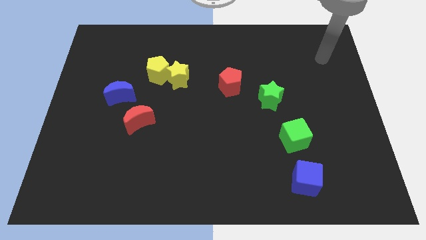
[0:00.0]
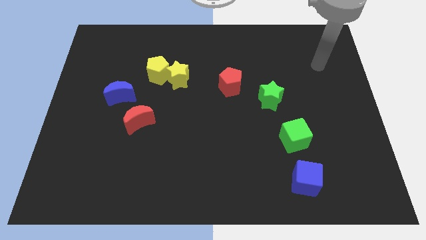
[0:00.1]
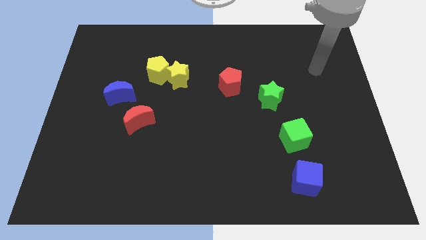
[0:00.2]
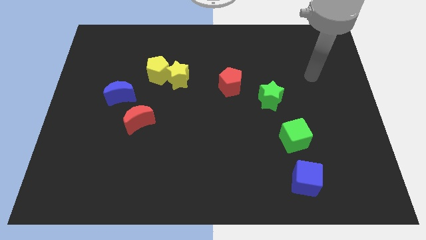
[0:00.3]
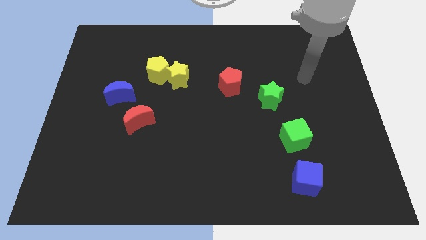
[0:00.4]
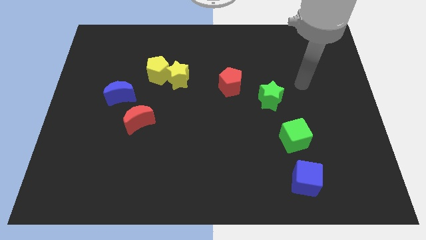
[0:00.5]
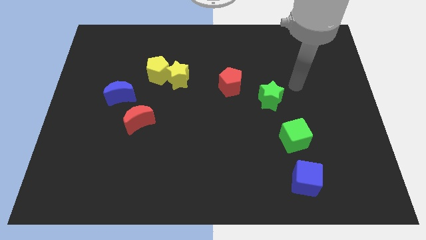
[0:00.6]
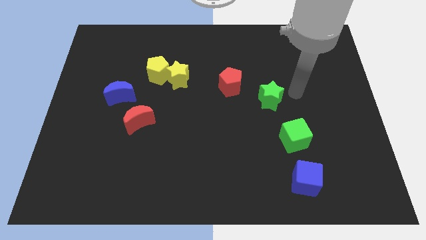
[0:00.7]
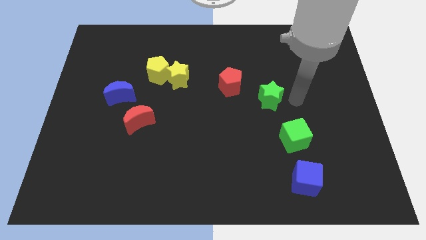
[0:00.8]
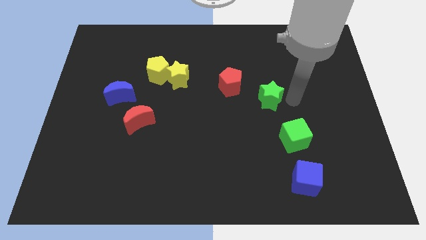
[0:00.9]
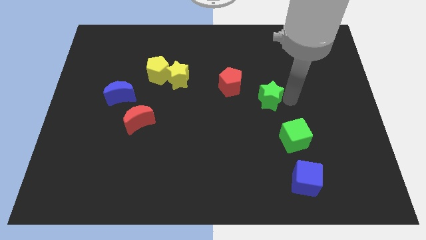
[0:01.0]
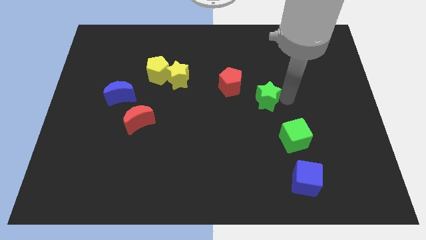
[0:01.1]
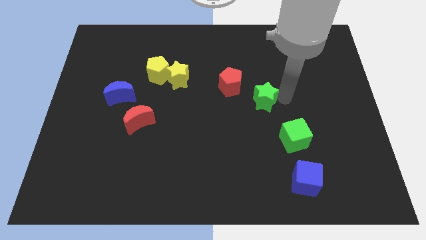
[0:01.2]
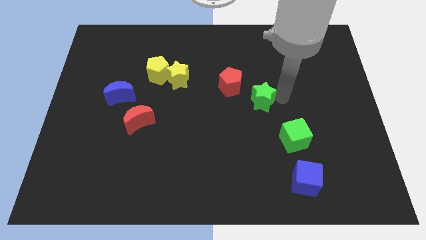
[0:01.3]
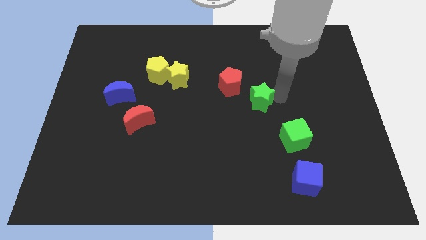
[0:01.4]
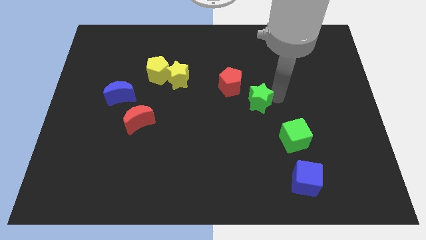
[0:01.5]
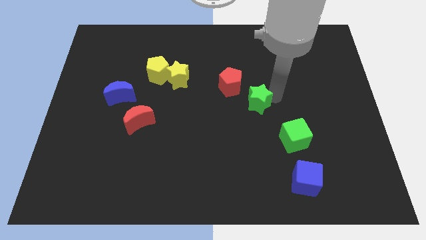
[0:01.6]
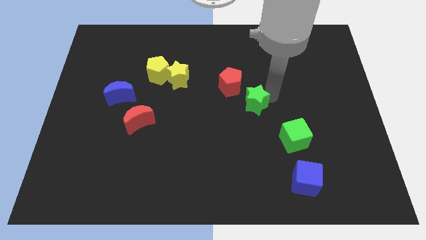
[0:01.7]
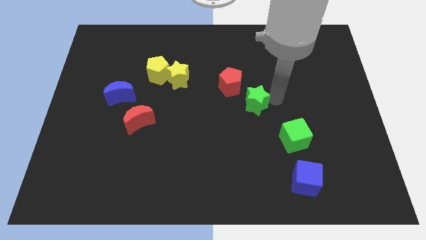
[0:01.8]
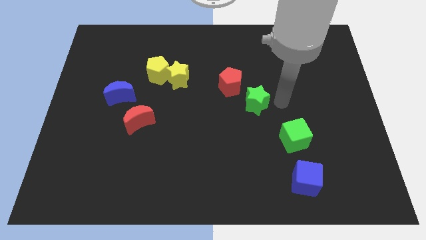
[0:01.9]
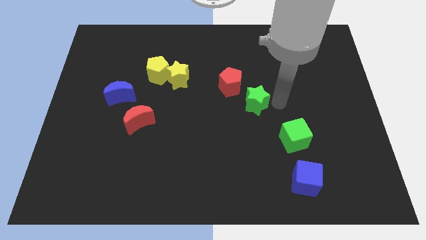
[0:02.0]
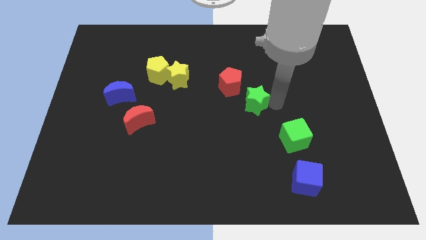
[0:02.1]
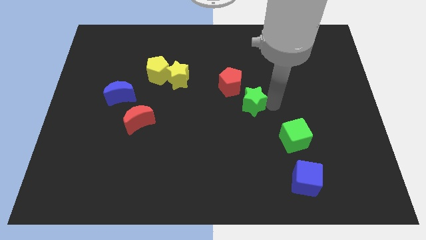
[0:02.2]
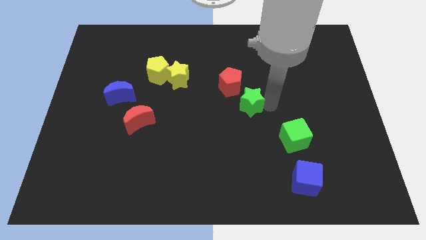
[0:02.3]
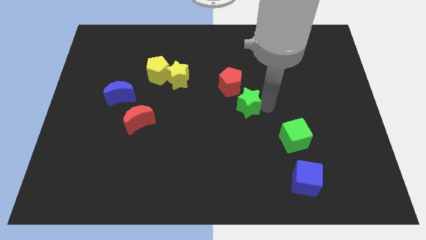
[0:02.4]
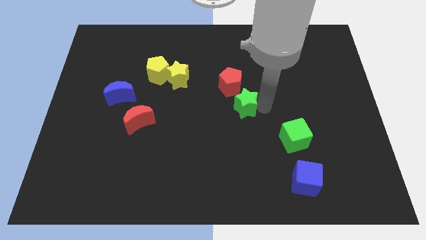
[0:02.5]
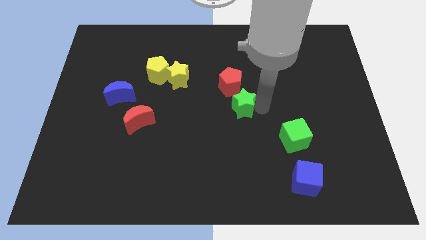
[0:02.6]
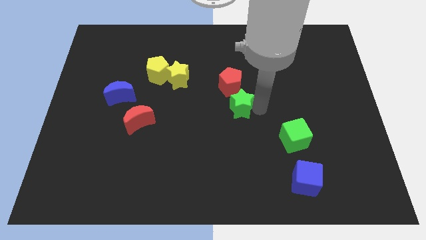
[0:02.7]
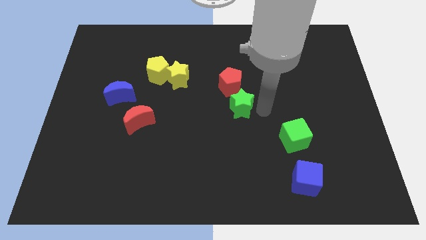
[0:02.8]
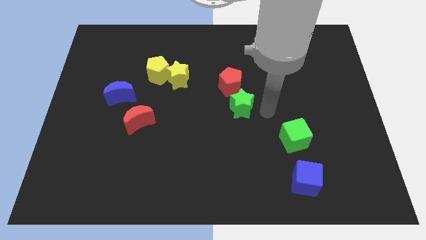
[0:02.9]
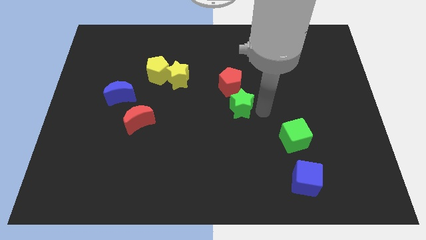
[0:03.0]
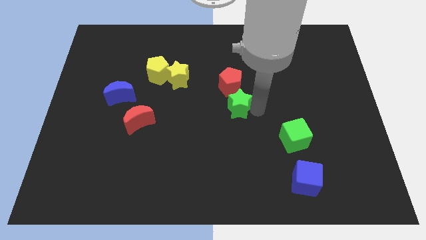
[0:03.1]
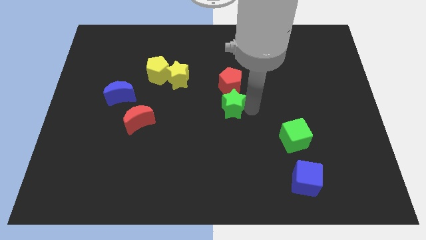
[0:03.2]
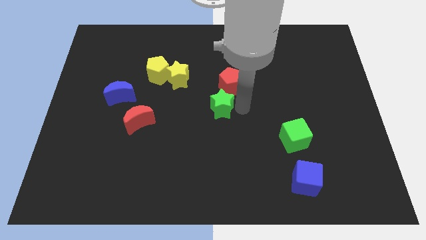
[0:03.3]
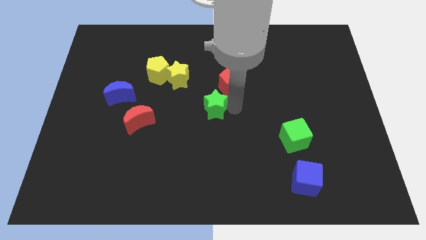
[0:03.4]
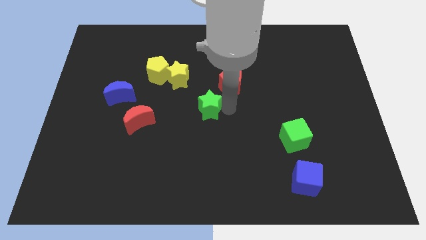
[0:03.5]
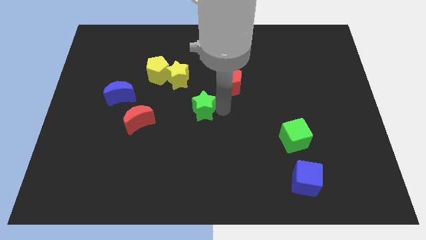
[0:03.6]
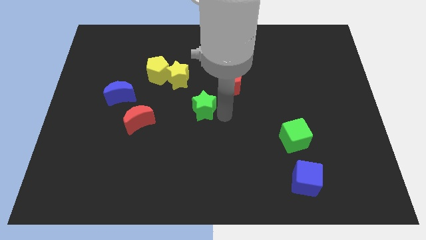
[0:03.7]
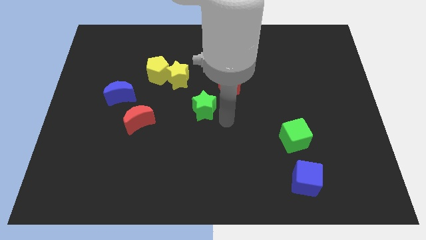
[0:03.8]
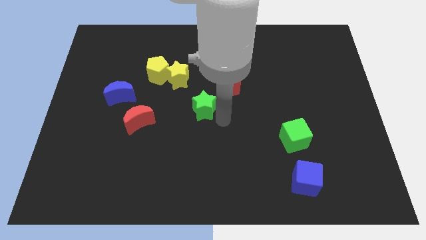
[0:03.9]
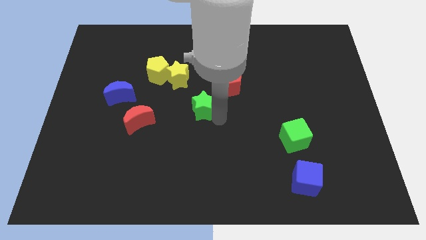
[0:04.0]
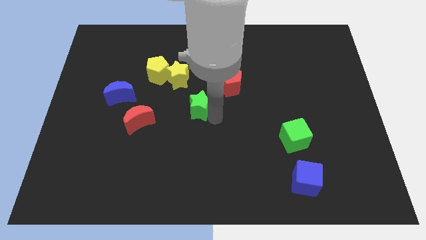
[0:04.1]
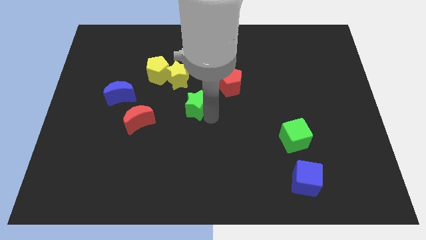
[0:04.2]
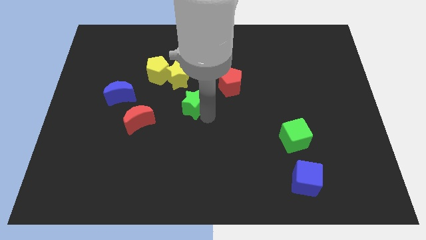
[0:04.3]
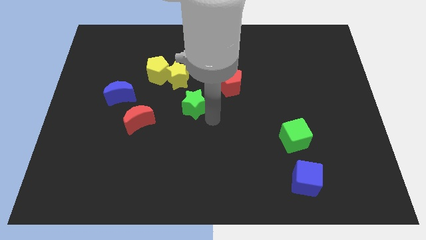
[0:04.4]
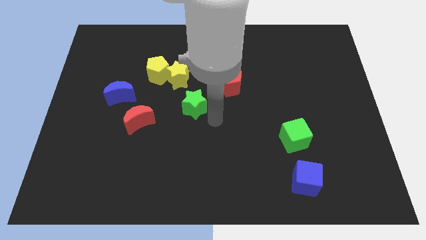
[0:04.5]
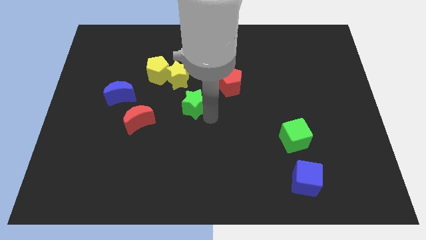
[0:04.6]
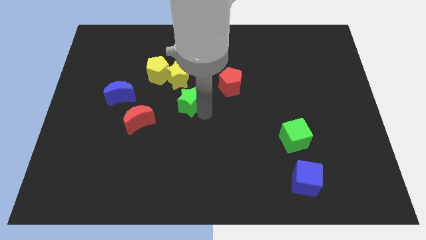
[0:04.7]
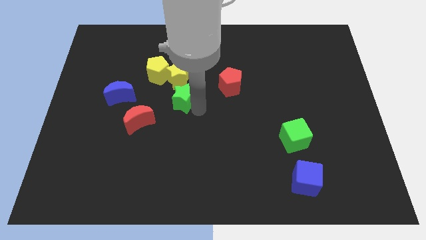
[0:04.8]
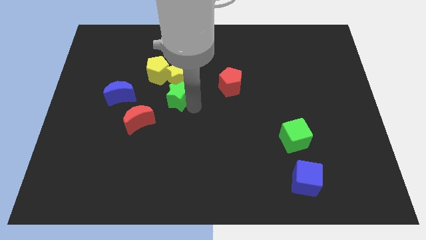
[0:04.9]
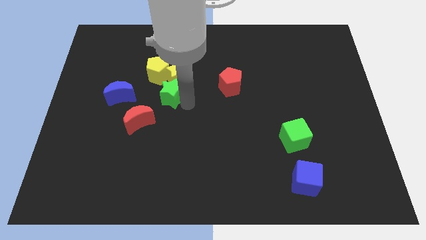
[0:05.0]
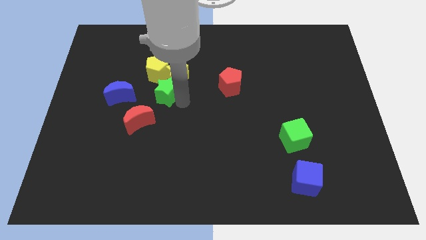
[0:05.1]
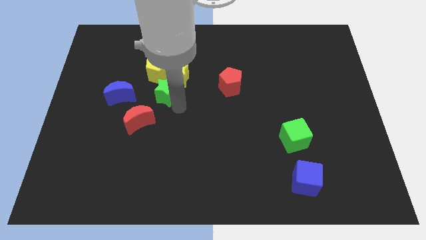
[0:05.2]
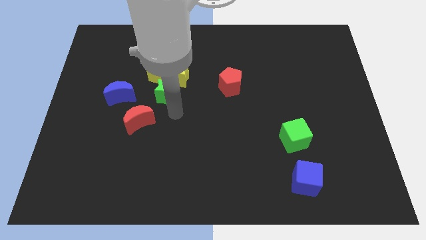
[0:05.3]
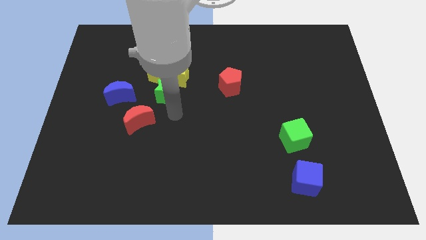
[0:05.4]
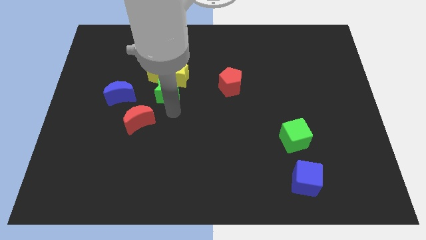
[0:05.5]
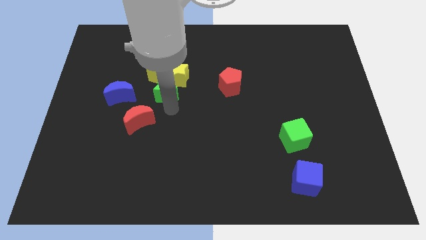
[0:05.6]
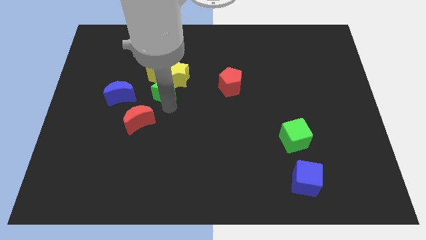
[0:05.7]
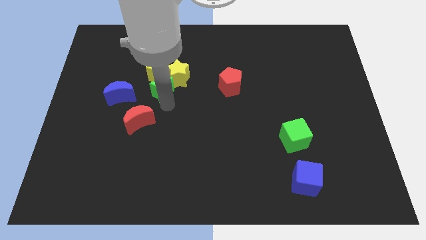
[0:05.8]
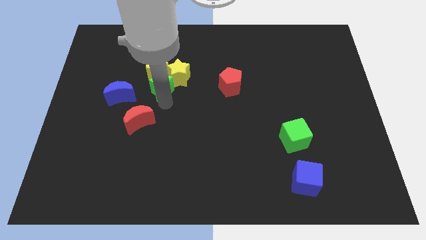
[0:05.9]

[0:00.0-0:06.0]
push the green star close to the yellow pentagon

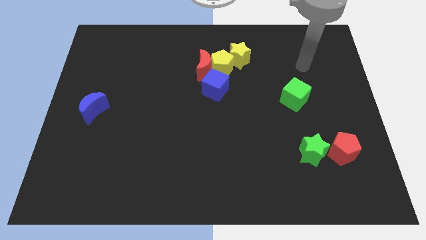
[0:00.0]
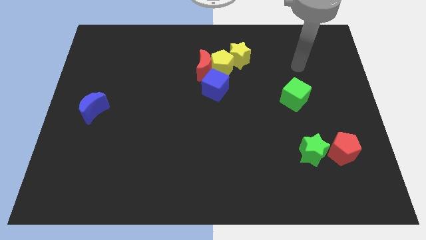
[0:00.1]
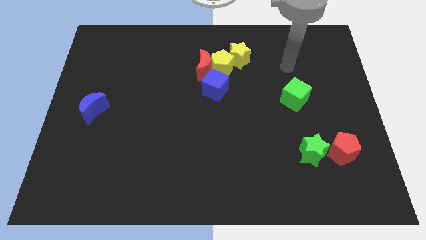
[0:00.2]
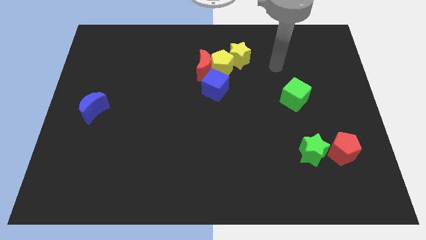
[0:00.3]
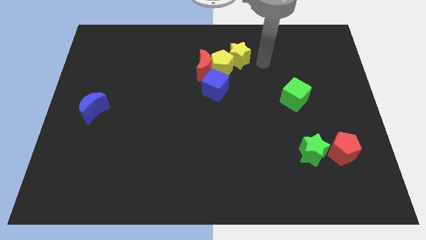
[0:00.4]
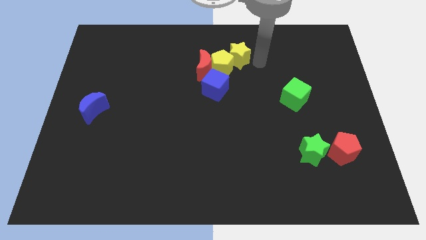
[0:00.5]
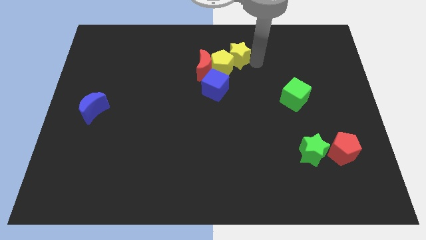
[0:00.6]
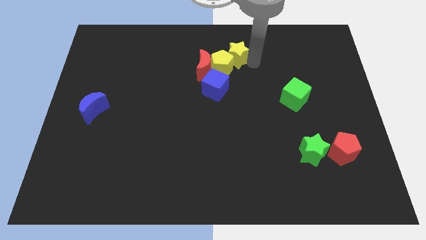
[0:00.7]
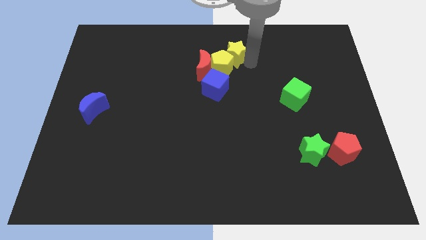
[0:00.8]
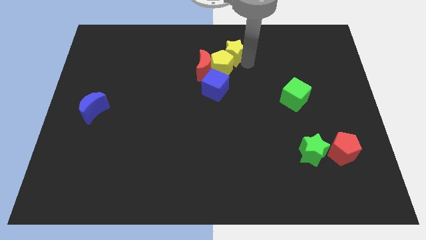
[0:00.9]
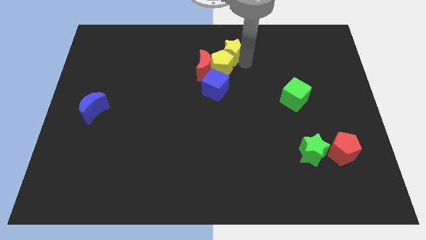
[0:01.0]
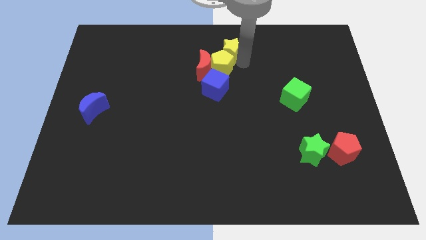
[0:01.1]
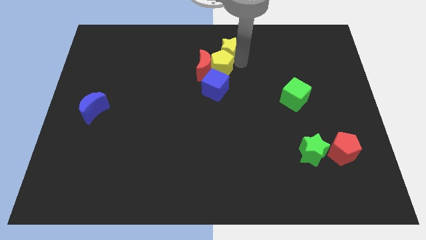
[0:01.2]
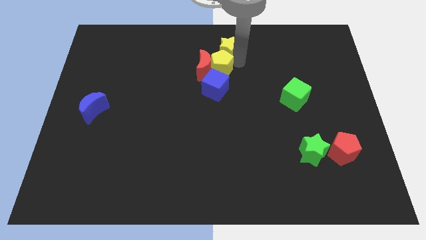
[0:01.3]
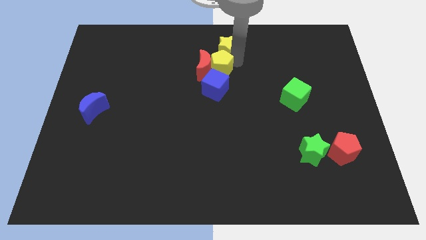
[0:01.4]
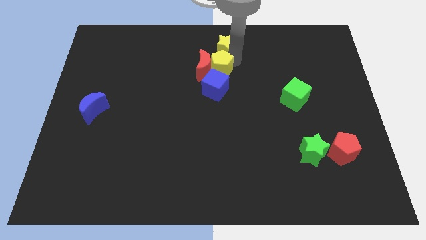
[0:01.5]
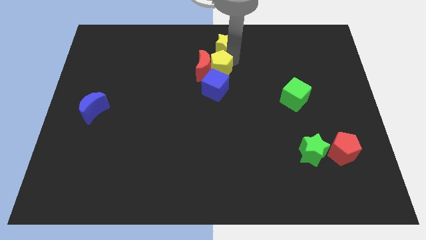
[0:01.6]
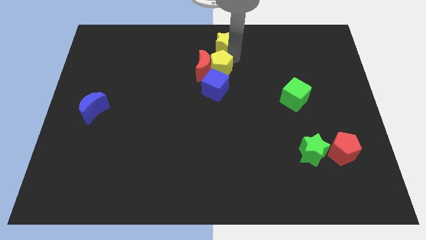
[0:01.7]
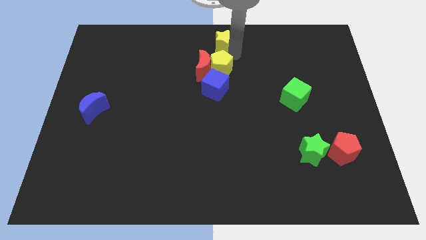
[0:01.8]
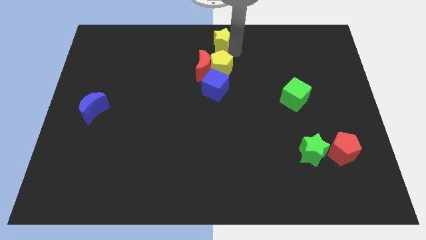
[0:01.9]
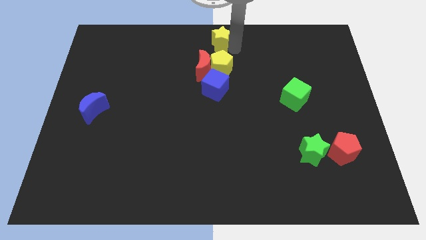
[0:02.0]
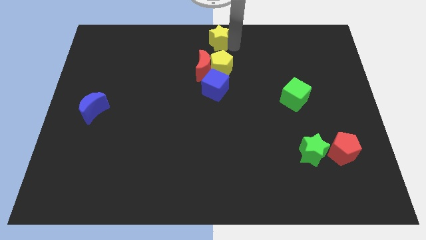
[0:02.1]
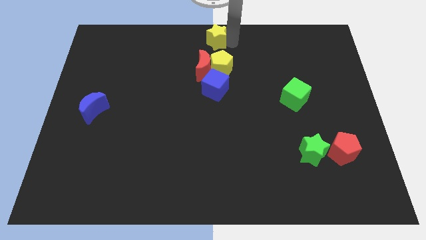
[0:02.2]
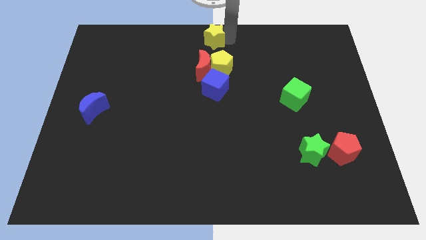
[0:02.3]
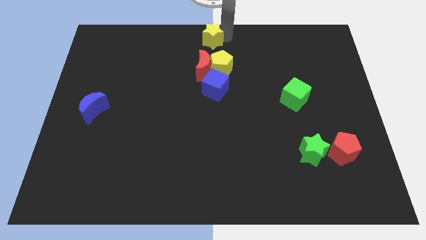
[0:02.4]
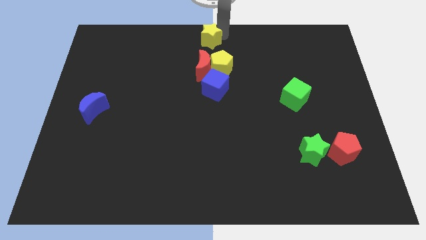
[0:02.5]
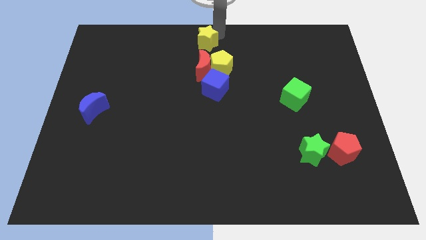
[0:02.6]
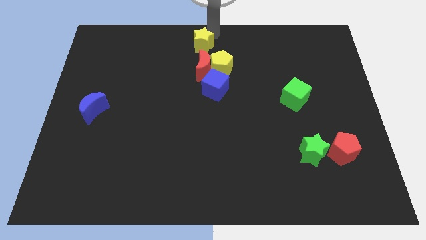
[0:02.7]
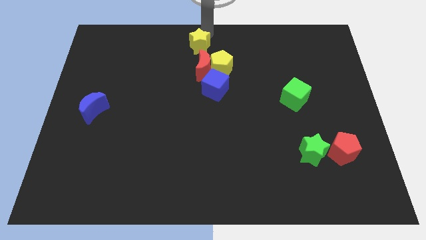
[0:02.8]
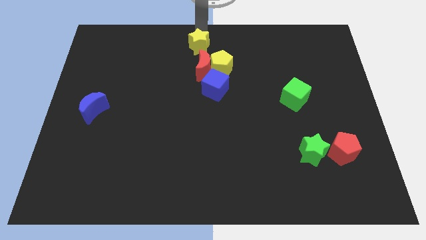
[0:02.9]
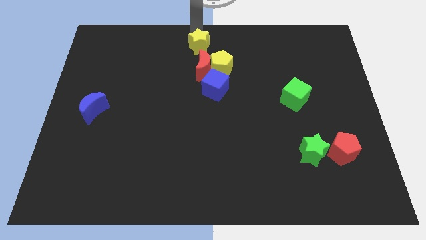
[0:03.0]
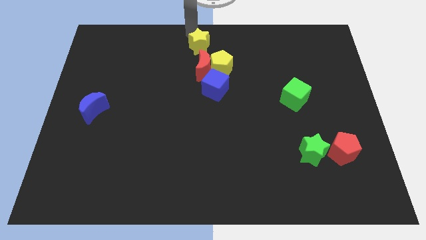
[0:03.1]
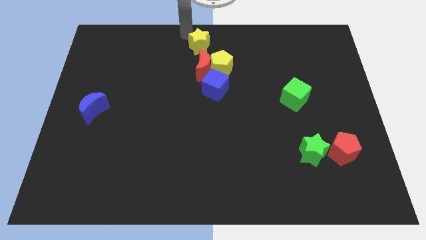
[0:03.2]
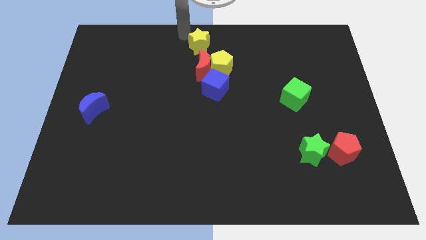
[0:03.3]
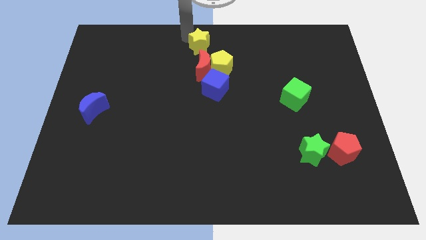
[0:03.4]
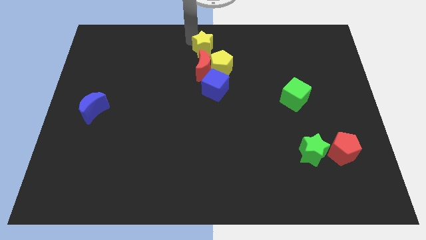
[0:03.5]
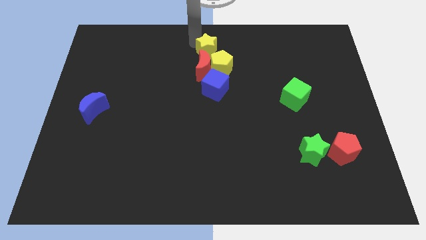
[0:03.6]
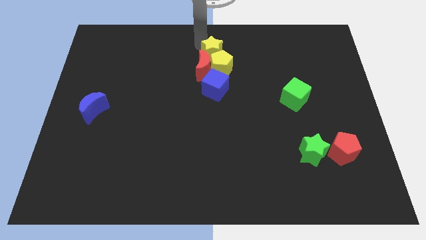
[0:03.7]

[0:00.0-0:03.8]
push the yellow star towards the red moon
